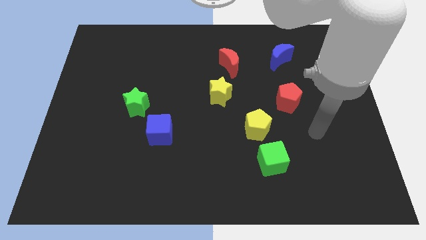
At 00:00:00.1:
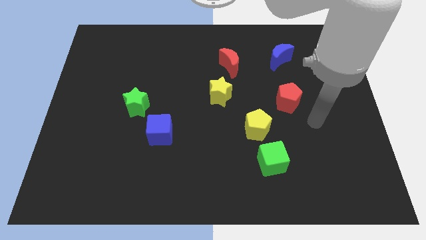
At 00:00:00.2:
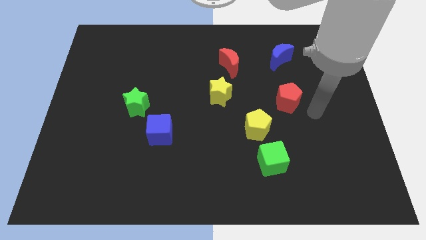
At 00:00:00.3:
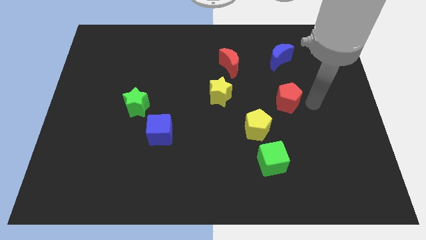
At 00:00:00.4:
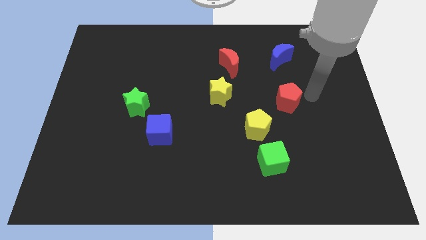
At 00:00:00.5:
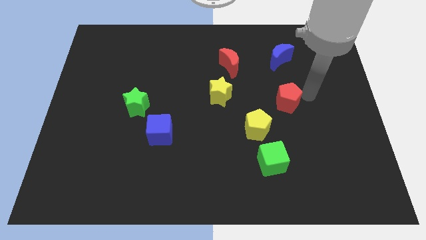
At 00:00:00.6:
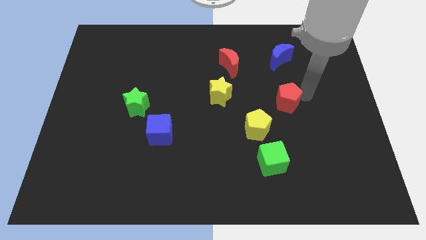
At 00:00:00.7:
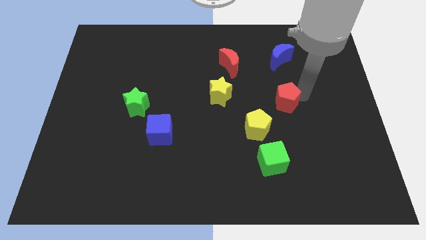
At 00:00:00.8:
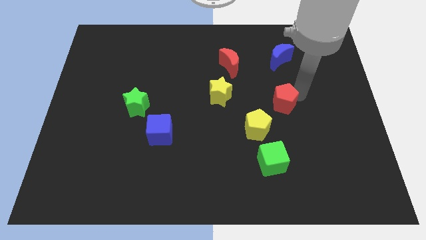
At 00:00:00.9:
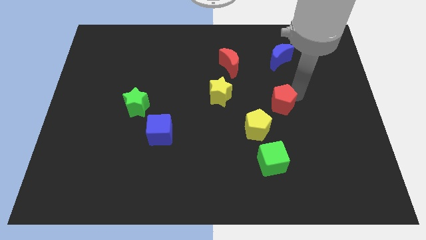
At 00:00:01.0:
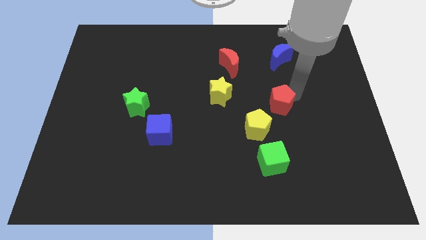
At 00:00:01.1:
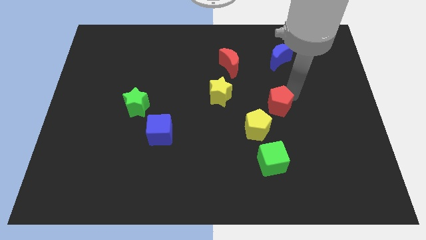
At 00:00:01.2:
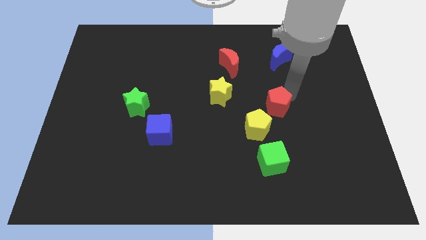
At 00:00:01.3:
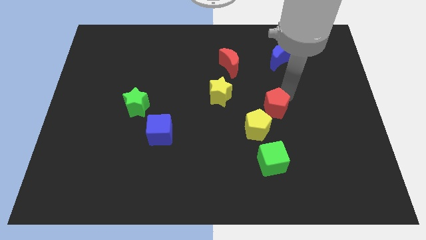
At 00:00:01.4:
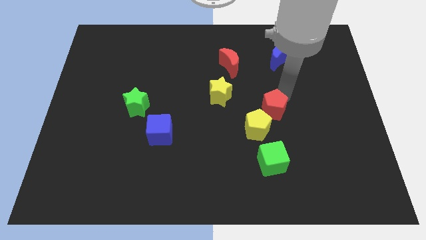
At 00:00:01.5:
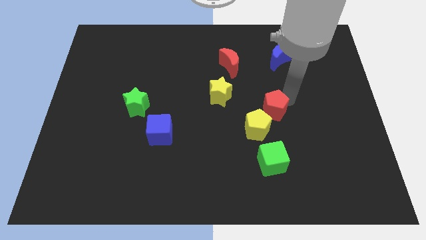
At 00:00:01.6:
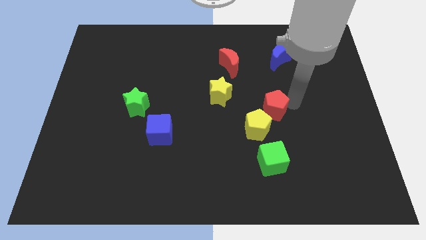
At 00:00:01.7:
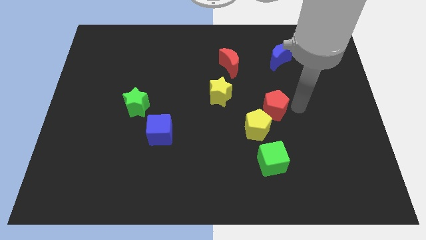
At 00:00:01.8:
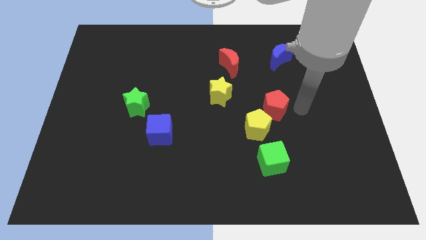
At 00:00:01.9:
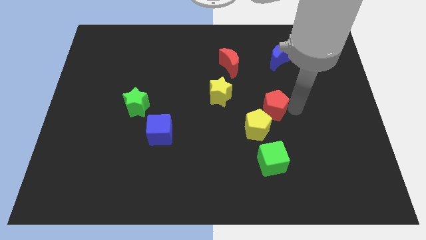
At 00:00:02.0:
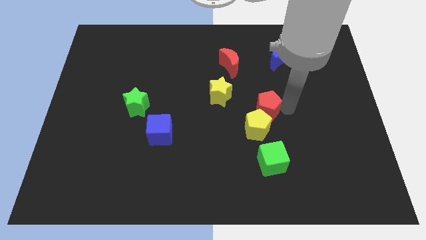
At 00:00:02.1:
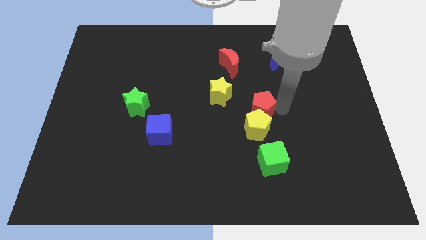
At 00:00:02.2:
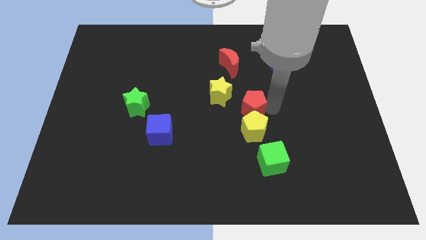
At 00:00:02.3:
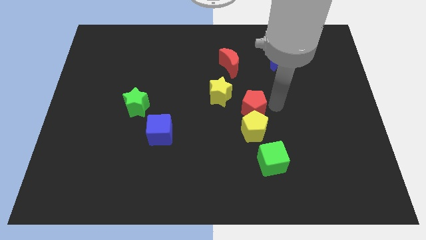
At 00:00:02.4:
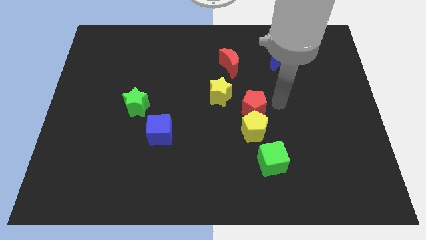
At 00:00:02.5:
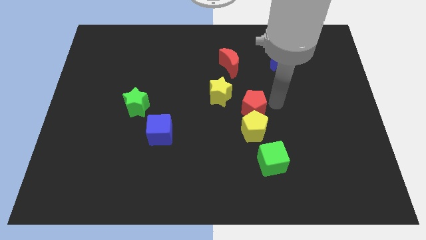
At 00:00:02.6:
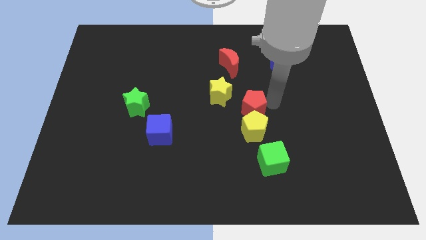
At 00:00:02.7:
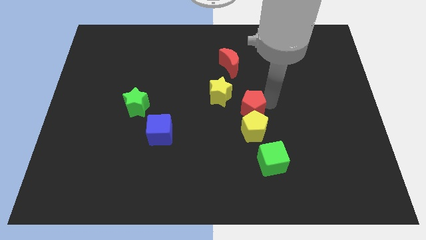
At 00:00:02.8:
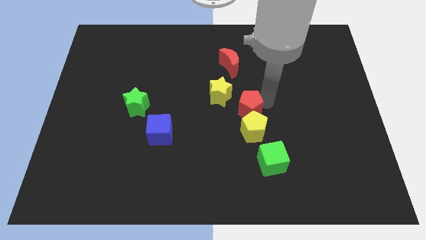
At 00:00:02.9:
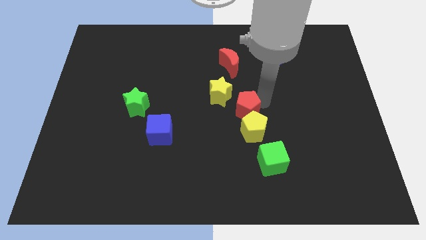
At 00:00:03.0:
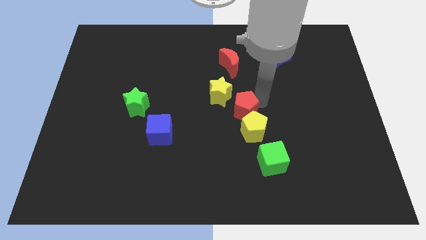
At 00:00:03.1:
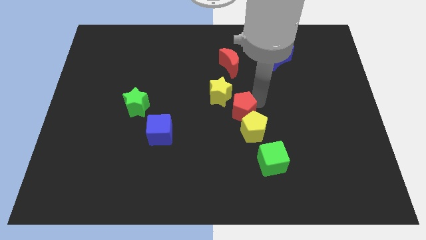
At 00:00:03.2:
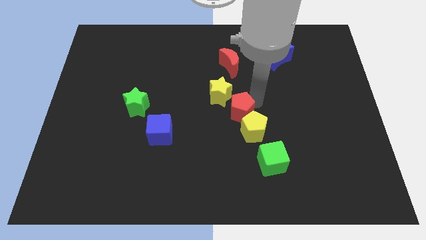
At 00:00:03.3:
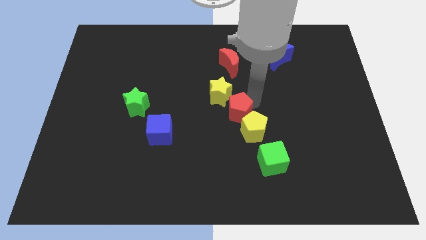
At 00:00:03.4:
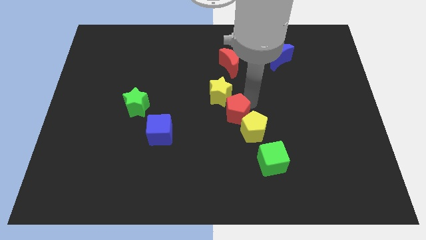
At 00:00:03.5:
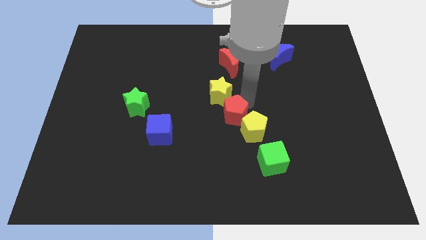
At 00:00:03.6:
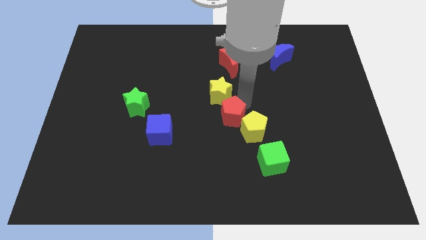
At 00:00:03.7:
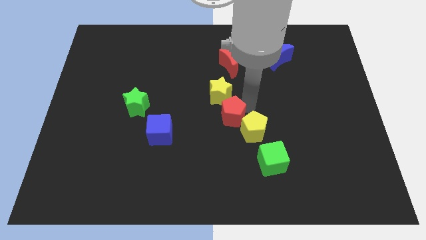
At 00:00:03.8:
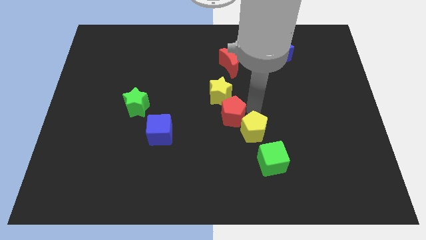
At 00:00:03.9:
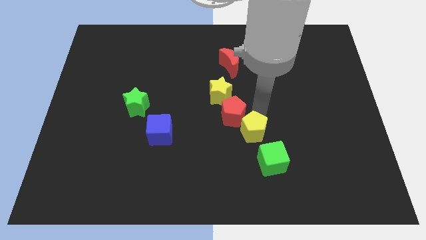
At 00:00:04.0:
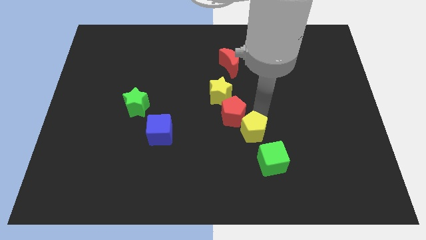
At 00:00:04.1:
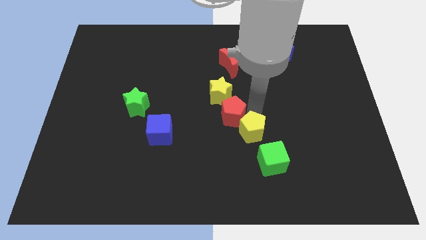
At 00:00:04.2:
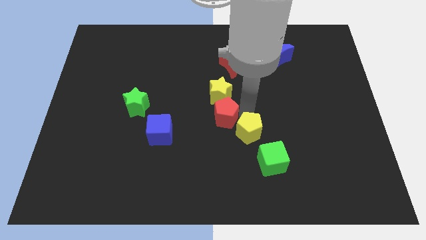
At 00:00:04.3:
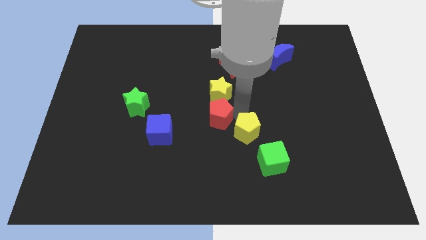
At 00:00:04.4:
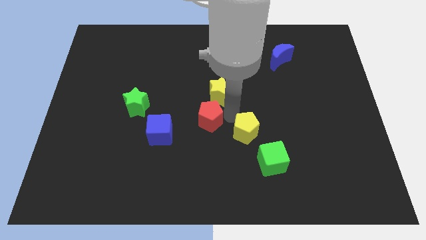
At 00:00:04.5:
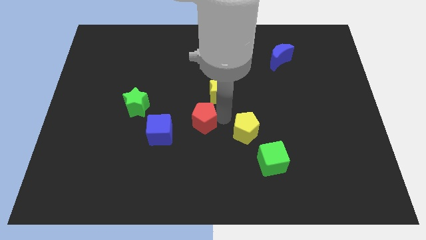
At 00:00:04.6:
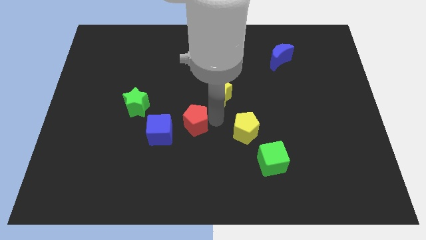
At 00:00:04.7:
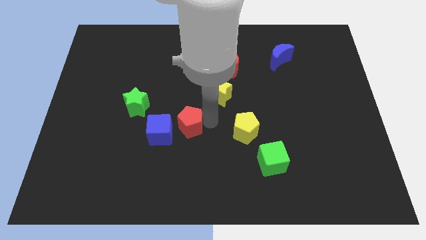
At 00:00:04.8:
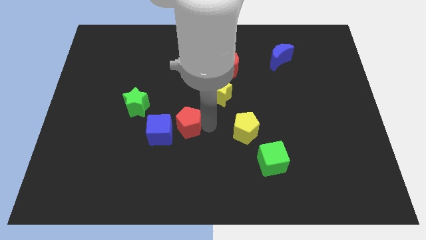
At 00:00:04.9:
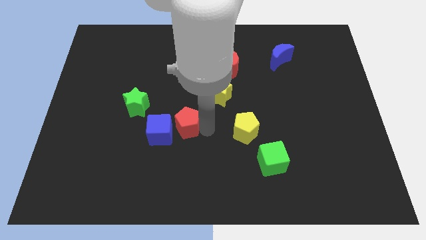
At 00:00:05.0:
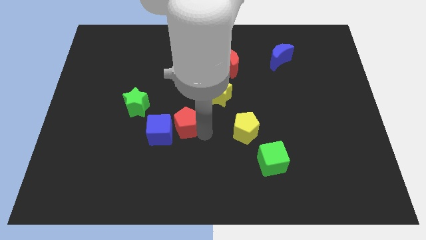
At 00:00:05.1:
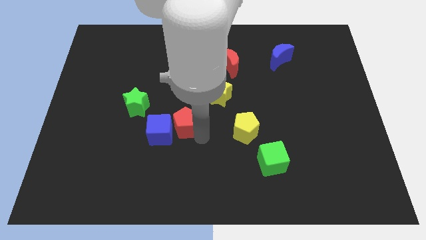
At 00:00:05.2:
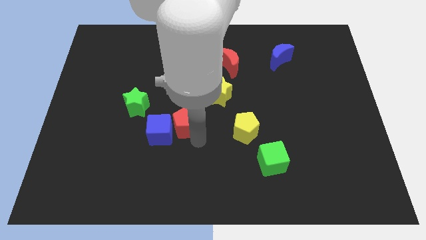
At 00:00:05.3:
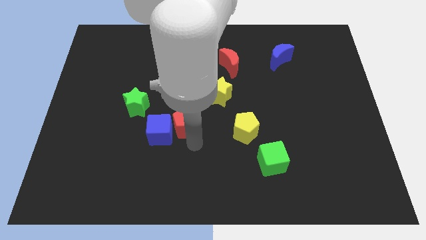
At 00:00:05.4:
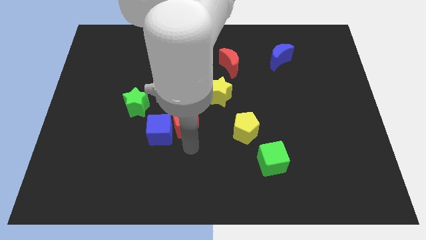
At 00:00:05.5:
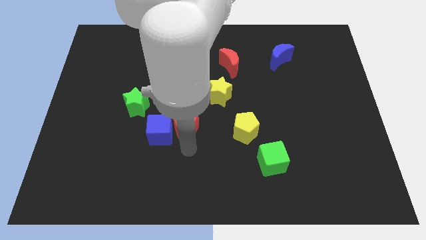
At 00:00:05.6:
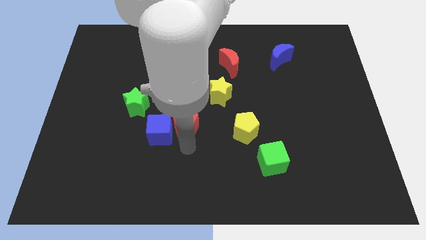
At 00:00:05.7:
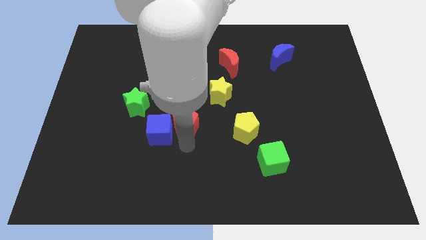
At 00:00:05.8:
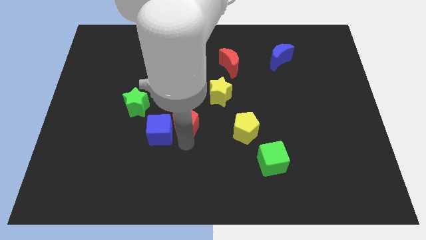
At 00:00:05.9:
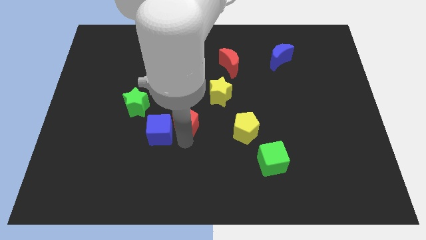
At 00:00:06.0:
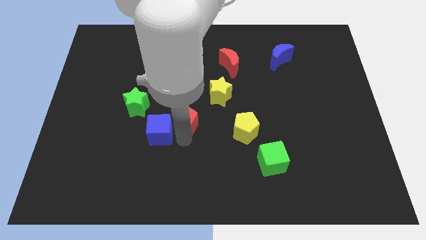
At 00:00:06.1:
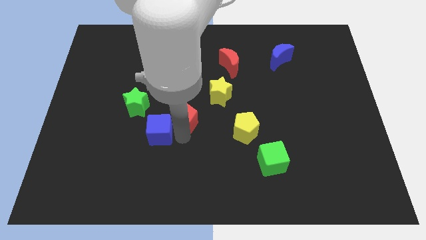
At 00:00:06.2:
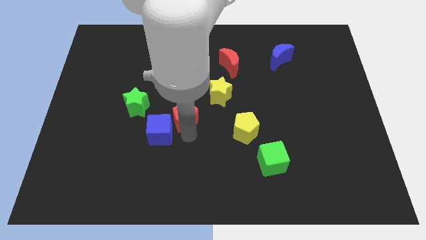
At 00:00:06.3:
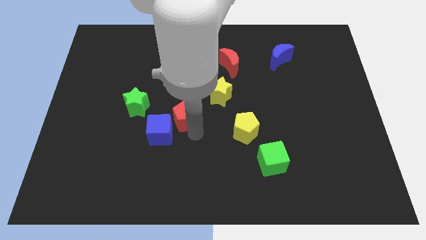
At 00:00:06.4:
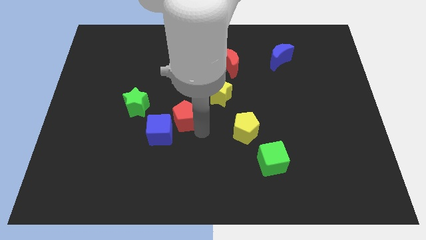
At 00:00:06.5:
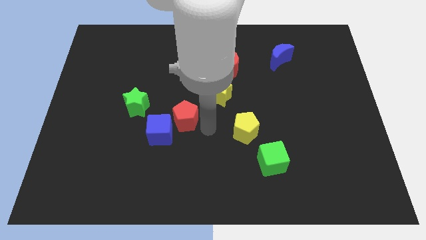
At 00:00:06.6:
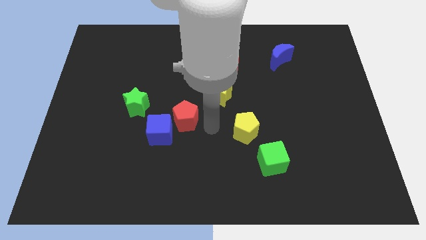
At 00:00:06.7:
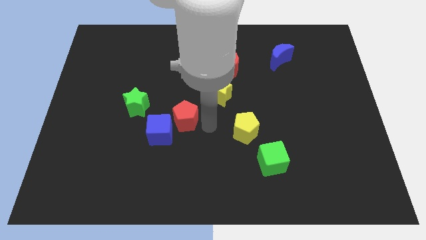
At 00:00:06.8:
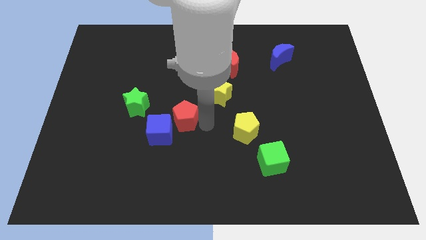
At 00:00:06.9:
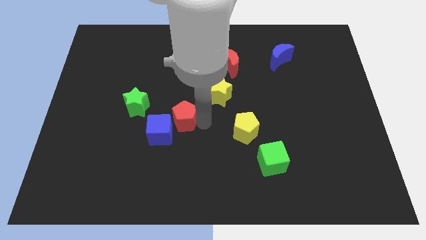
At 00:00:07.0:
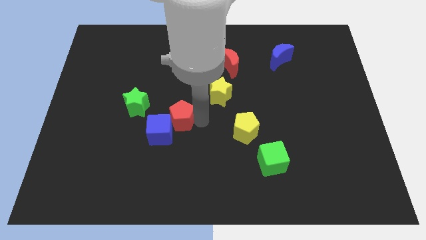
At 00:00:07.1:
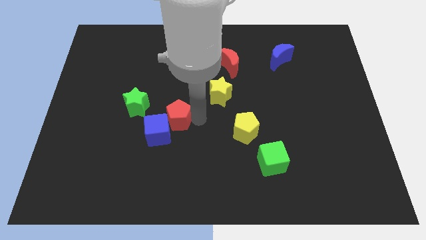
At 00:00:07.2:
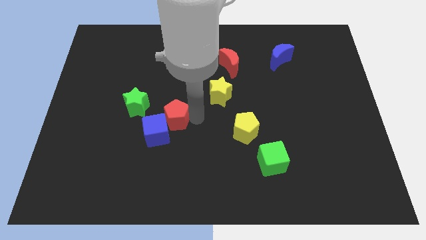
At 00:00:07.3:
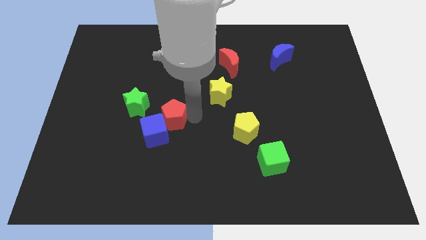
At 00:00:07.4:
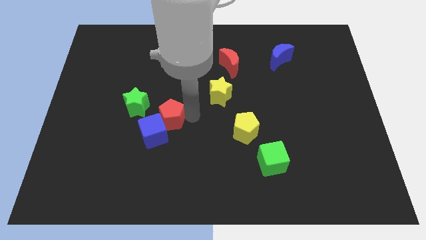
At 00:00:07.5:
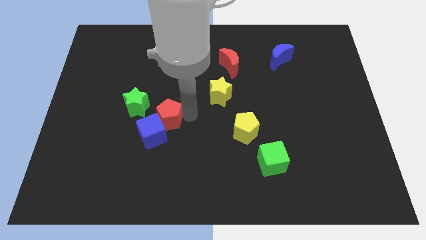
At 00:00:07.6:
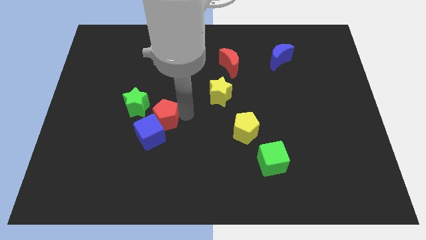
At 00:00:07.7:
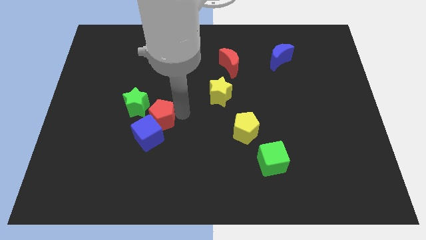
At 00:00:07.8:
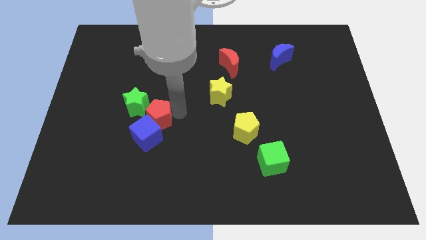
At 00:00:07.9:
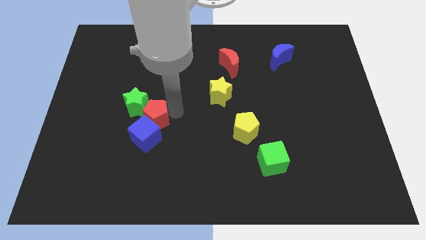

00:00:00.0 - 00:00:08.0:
move the red pentagon close to the green star
